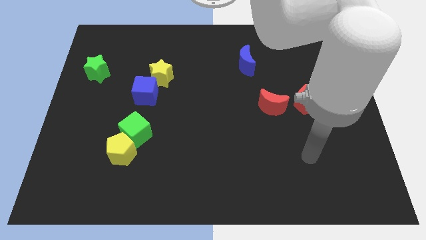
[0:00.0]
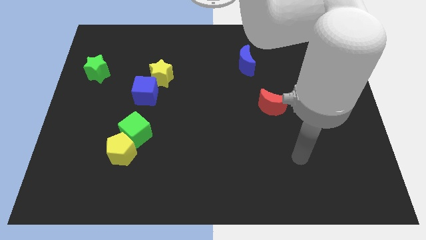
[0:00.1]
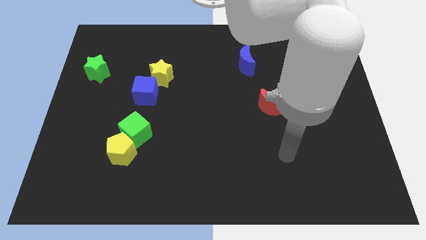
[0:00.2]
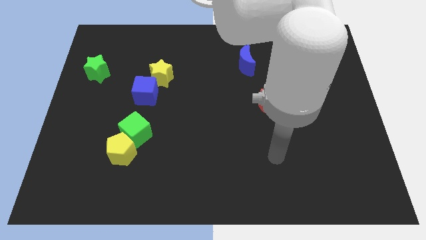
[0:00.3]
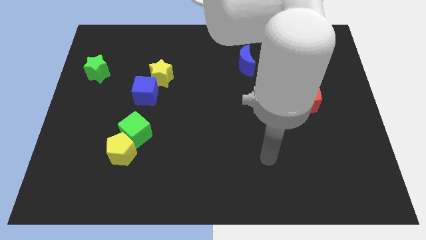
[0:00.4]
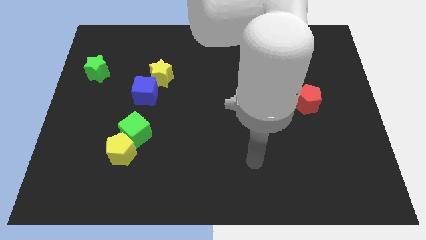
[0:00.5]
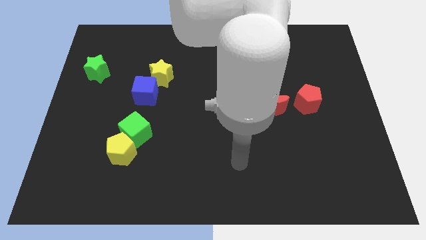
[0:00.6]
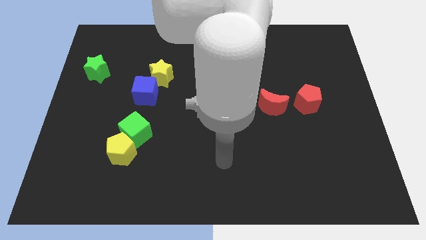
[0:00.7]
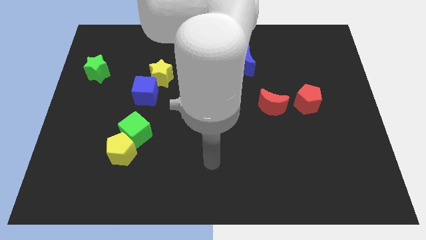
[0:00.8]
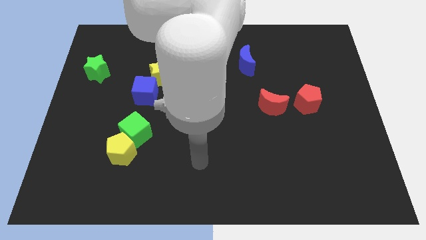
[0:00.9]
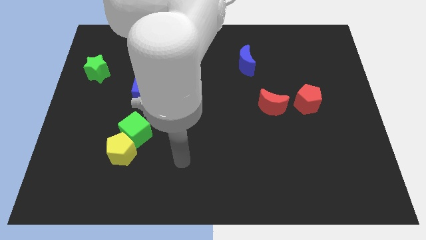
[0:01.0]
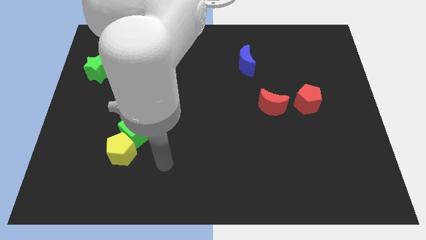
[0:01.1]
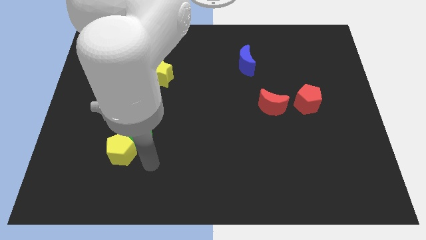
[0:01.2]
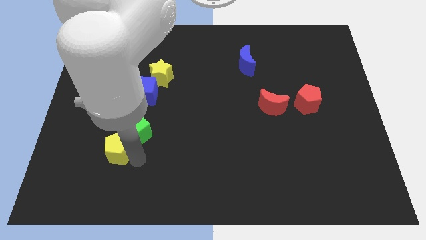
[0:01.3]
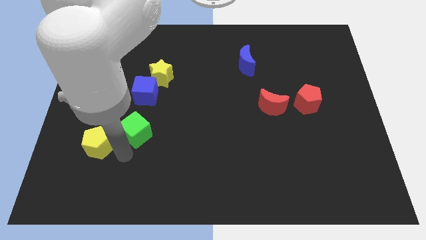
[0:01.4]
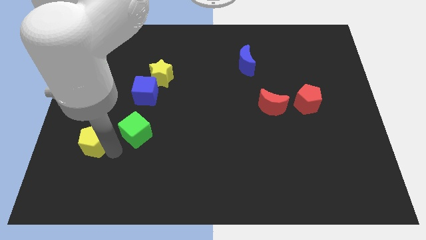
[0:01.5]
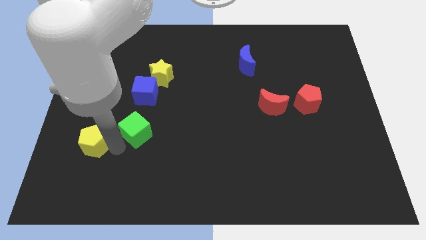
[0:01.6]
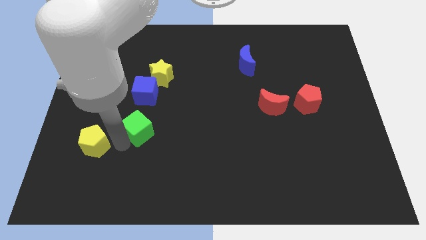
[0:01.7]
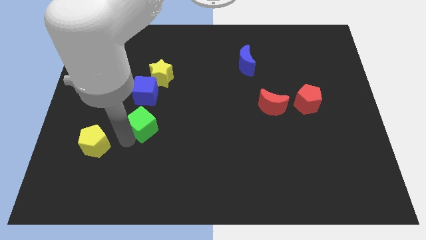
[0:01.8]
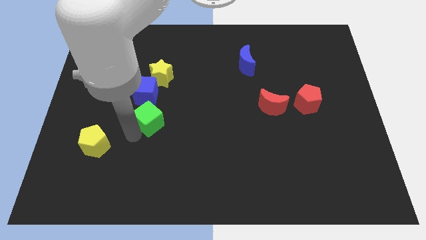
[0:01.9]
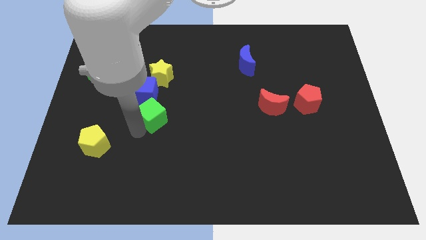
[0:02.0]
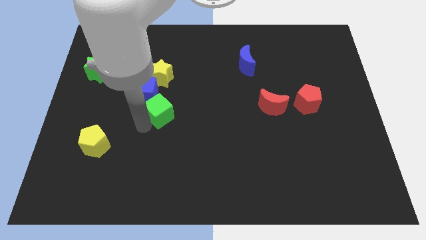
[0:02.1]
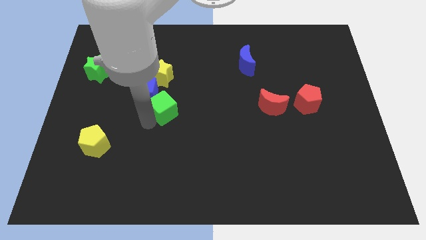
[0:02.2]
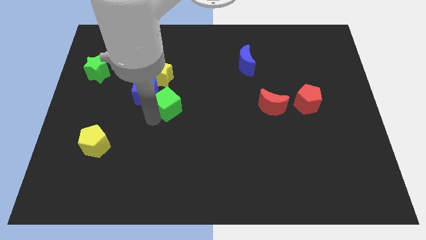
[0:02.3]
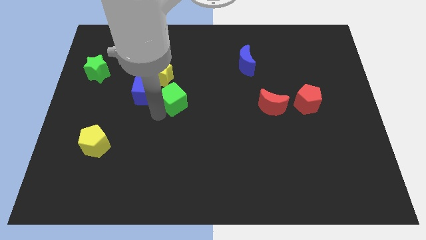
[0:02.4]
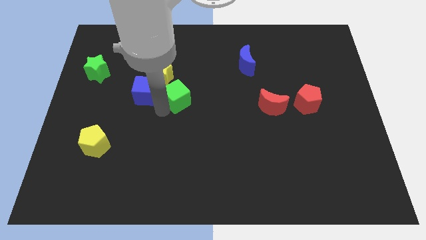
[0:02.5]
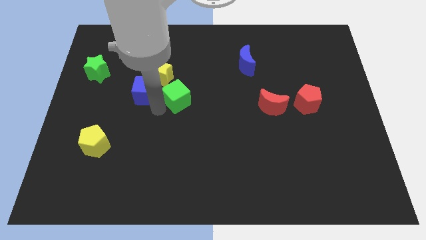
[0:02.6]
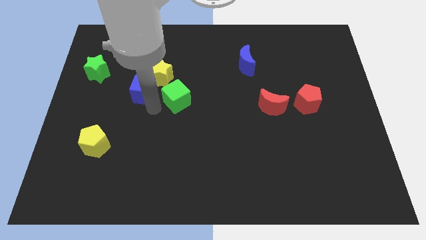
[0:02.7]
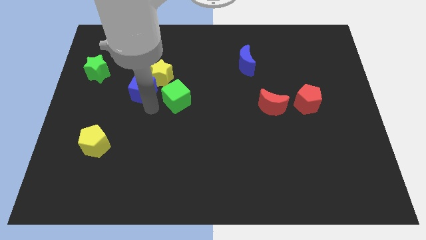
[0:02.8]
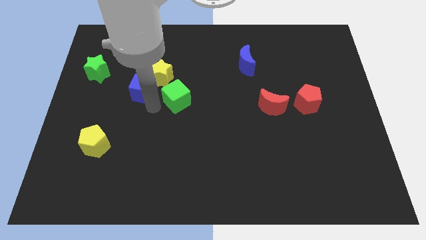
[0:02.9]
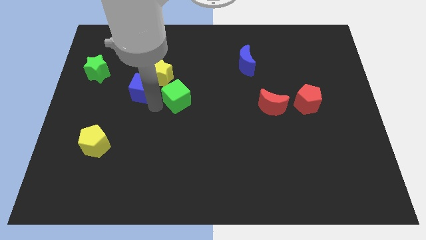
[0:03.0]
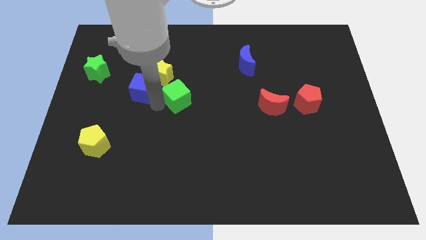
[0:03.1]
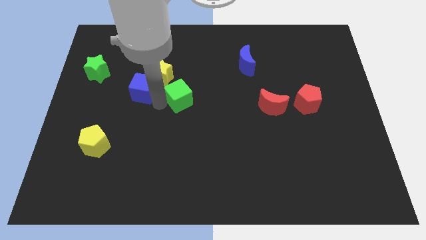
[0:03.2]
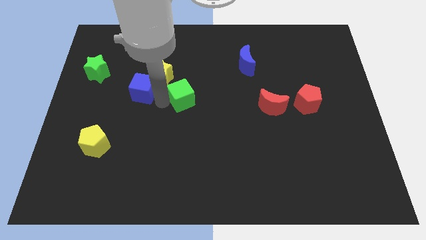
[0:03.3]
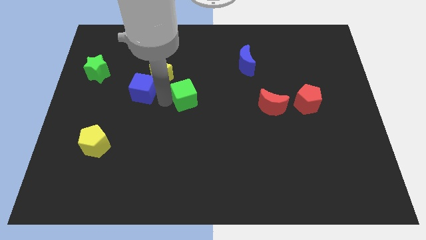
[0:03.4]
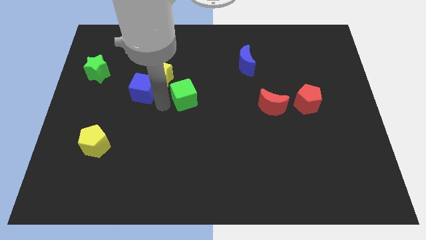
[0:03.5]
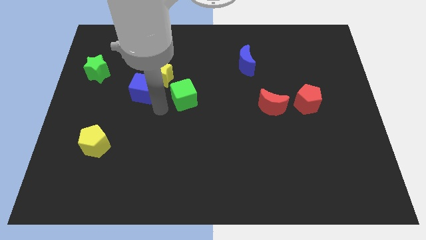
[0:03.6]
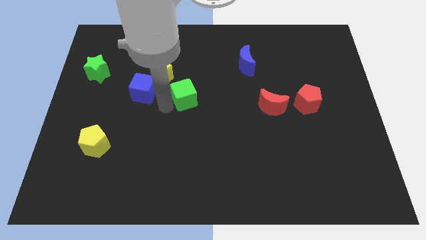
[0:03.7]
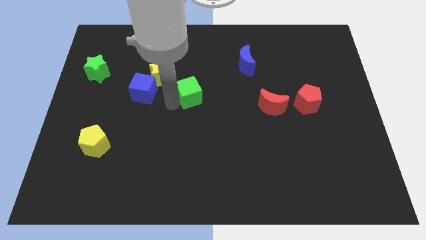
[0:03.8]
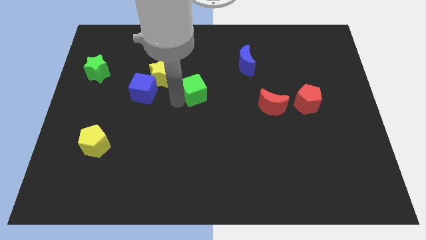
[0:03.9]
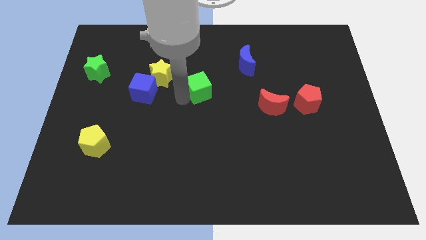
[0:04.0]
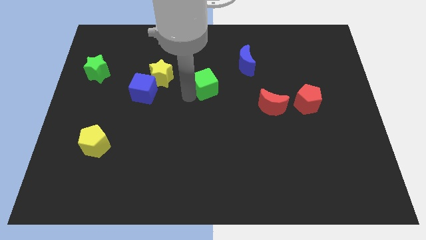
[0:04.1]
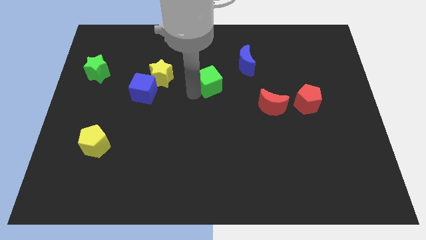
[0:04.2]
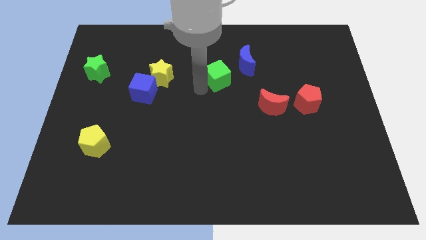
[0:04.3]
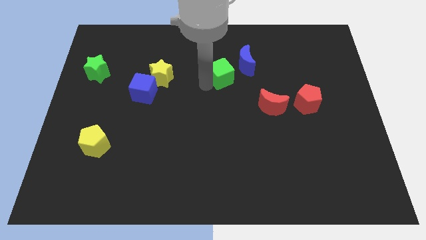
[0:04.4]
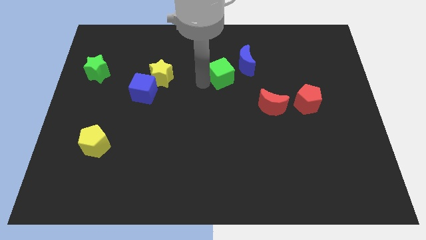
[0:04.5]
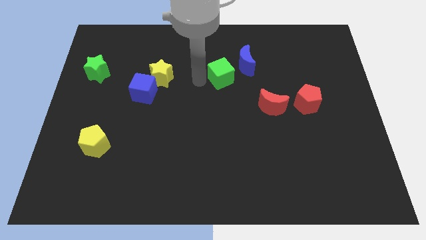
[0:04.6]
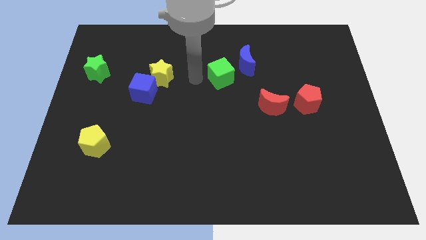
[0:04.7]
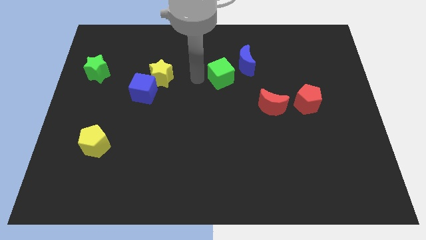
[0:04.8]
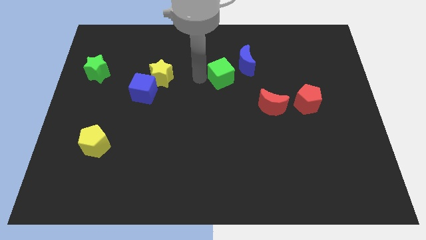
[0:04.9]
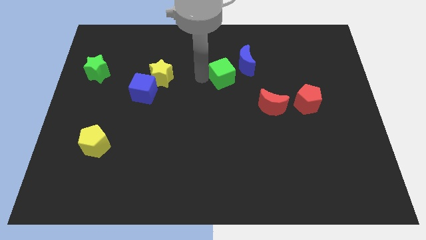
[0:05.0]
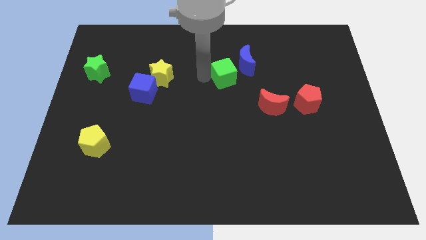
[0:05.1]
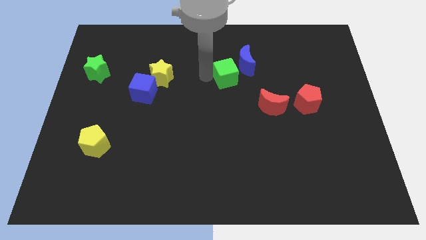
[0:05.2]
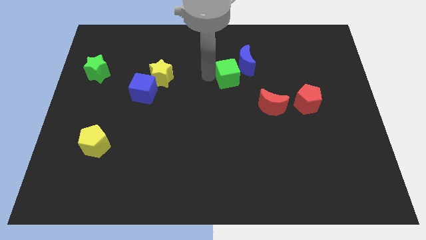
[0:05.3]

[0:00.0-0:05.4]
put the green cube next to the blue moon

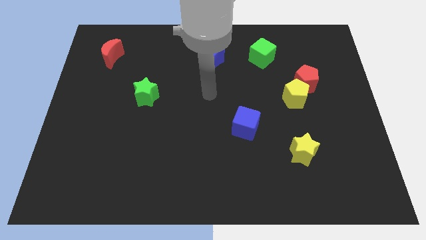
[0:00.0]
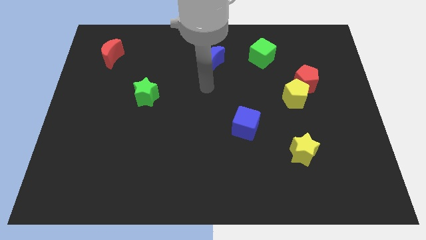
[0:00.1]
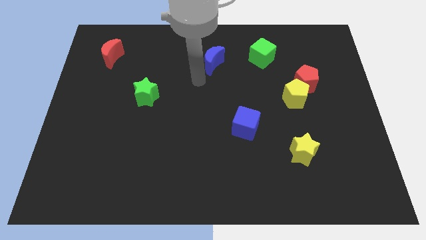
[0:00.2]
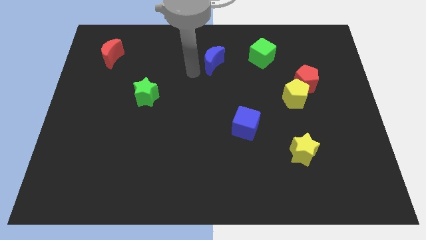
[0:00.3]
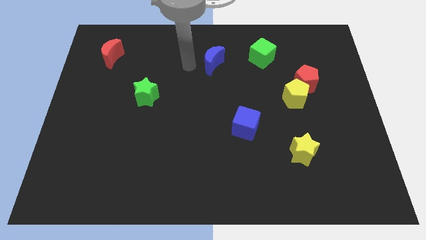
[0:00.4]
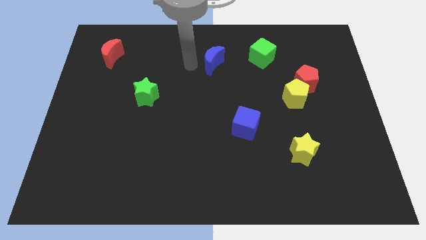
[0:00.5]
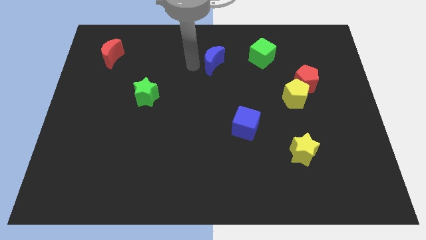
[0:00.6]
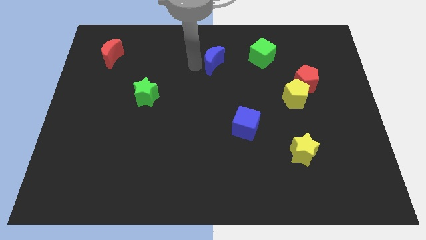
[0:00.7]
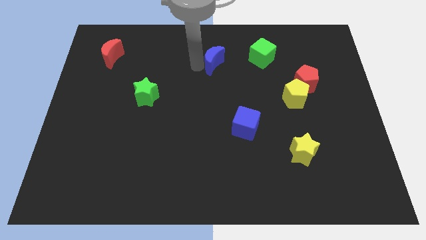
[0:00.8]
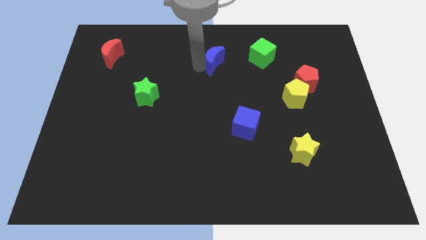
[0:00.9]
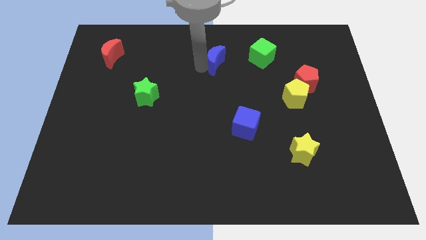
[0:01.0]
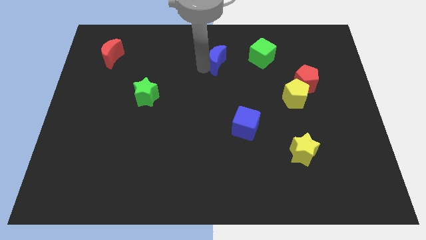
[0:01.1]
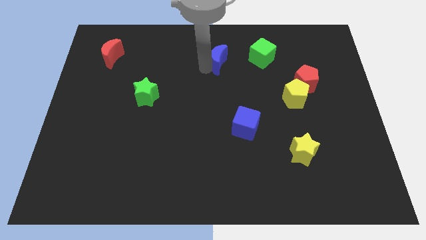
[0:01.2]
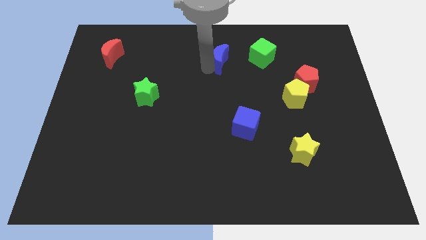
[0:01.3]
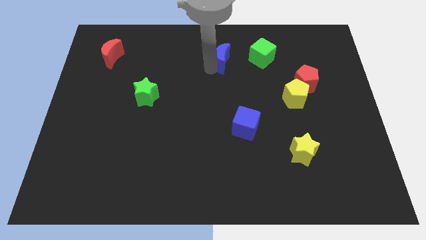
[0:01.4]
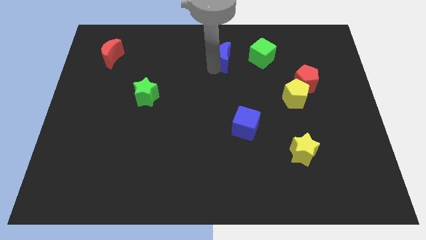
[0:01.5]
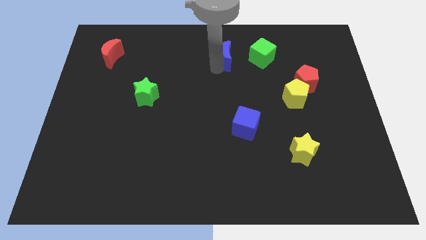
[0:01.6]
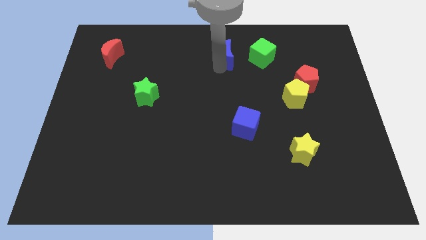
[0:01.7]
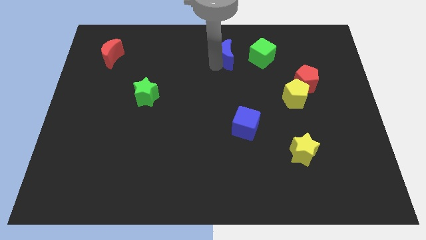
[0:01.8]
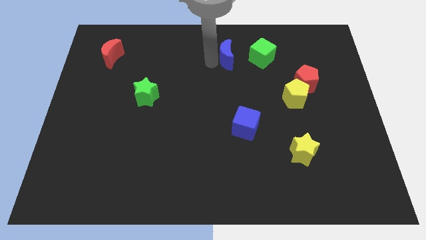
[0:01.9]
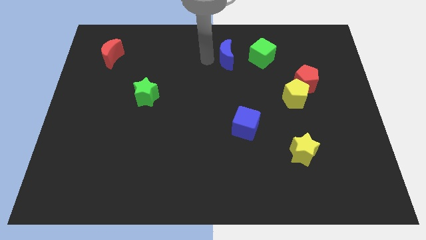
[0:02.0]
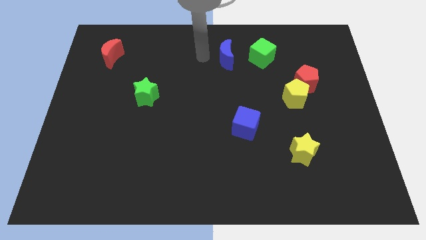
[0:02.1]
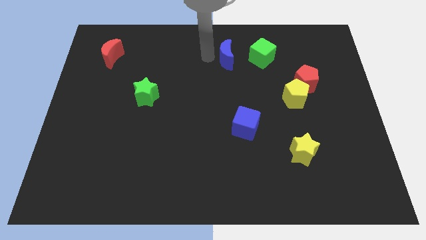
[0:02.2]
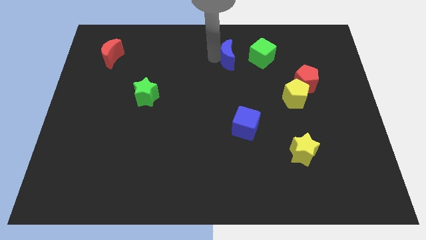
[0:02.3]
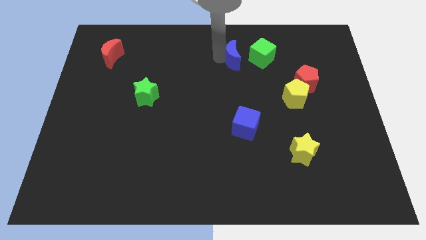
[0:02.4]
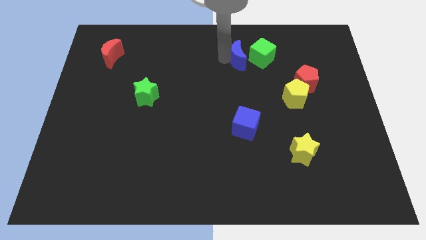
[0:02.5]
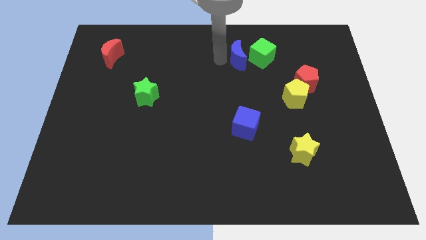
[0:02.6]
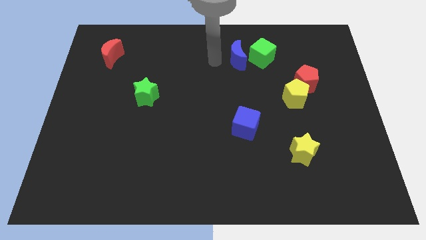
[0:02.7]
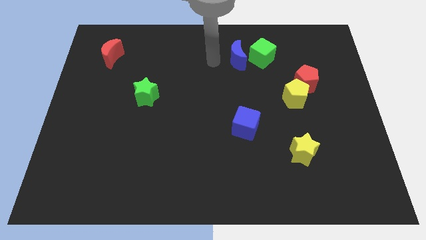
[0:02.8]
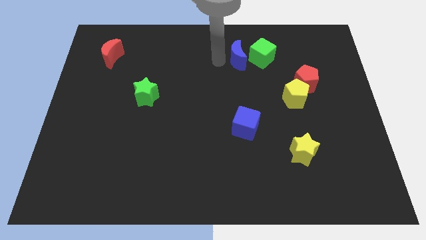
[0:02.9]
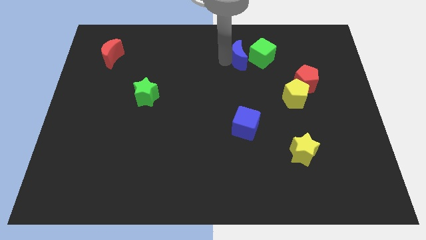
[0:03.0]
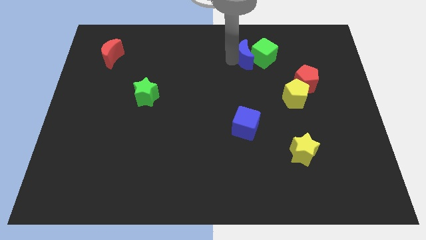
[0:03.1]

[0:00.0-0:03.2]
move the blue moon to the green cube
